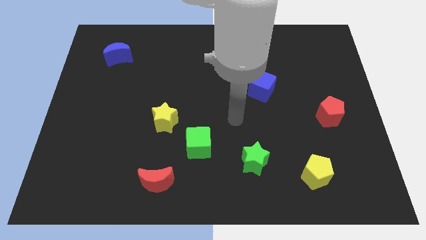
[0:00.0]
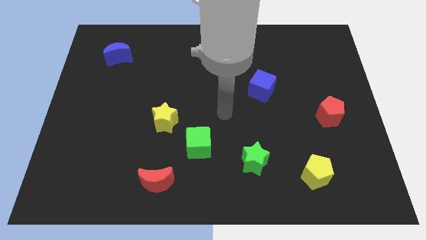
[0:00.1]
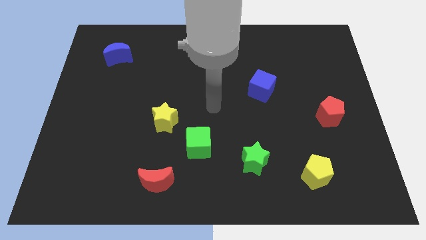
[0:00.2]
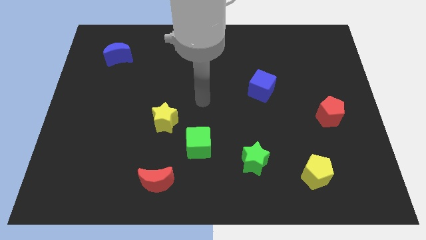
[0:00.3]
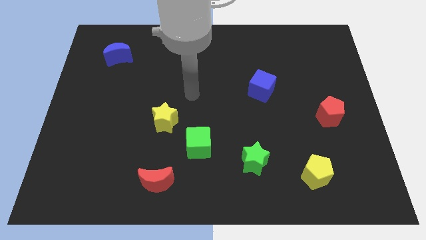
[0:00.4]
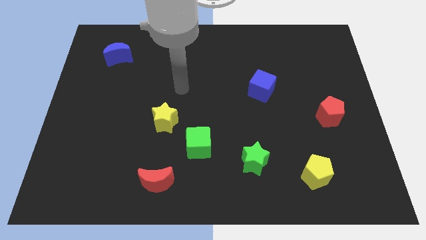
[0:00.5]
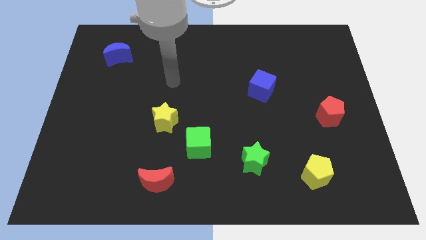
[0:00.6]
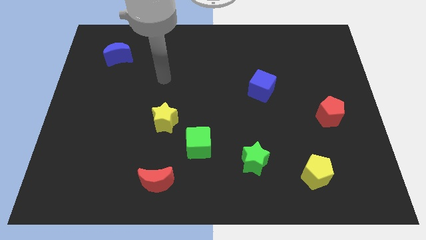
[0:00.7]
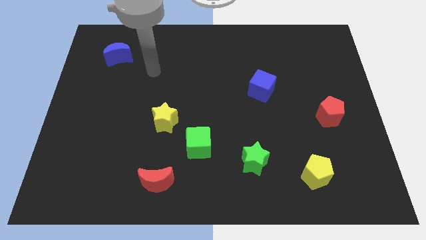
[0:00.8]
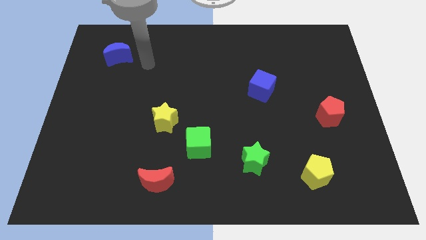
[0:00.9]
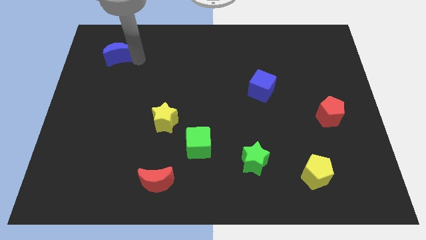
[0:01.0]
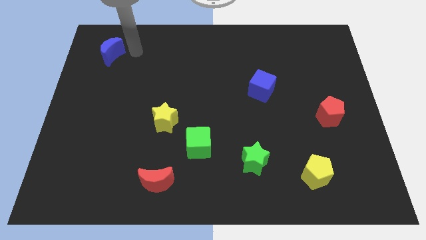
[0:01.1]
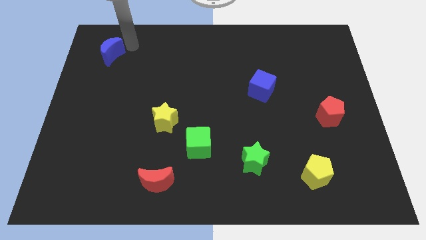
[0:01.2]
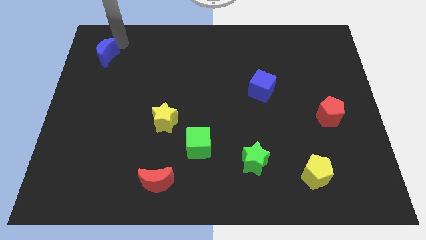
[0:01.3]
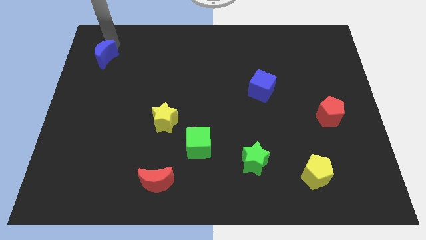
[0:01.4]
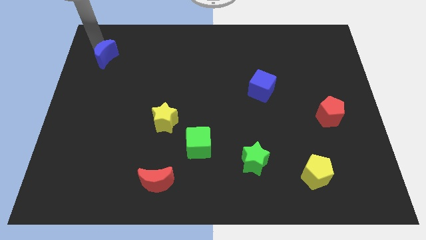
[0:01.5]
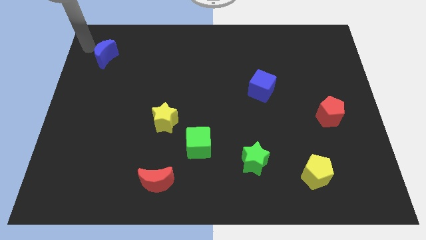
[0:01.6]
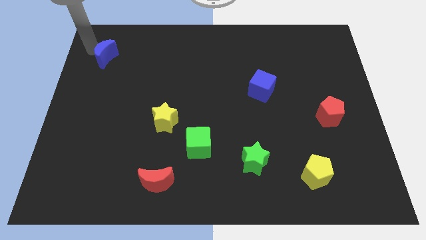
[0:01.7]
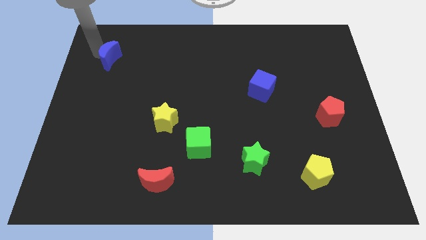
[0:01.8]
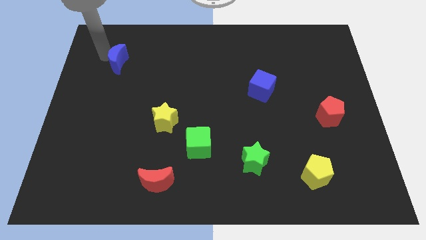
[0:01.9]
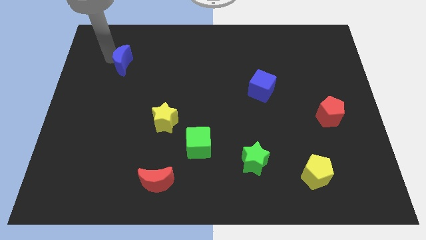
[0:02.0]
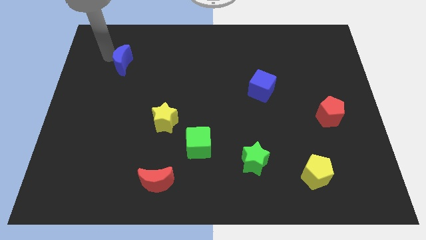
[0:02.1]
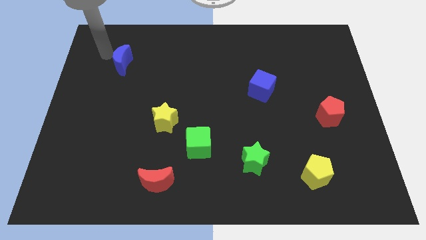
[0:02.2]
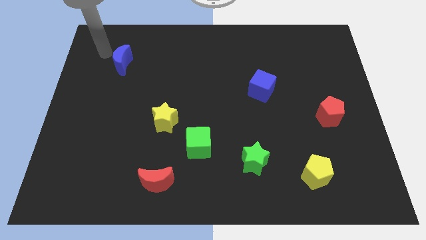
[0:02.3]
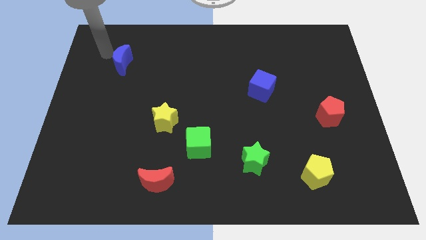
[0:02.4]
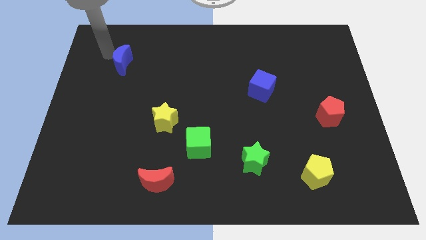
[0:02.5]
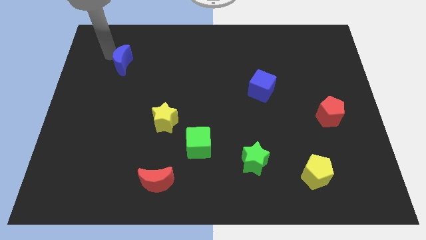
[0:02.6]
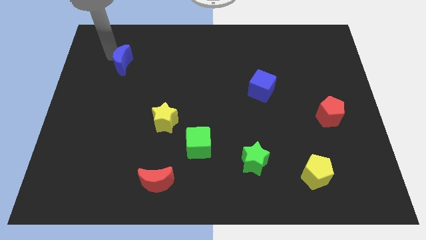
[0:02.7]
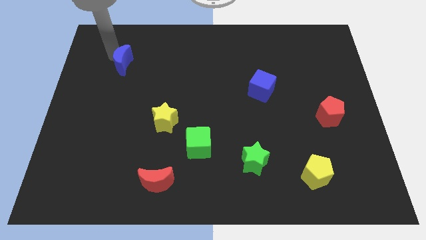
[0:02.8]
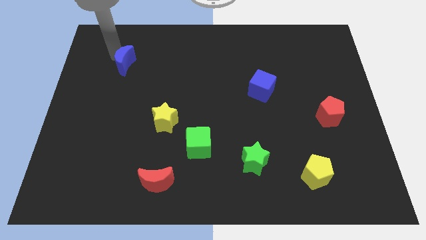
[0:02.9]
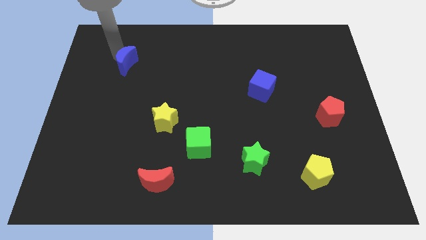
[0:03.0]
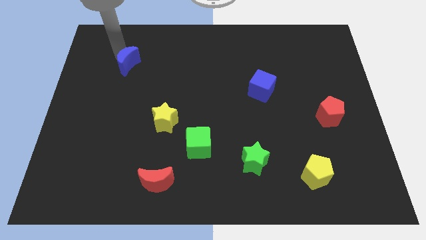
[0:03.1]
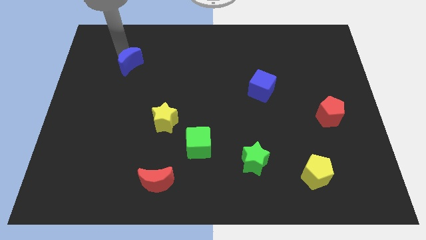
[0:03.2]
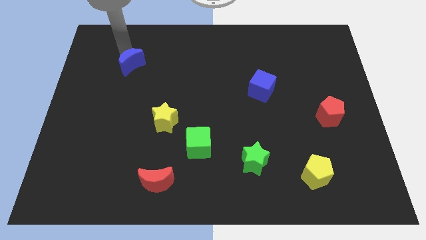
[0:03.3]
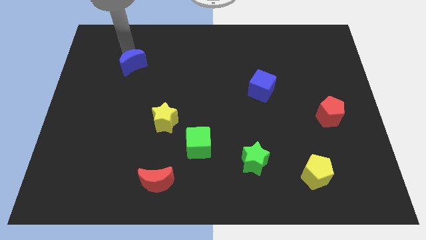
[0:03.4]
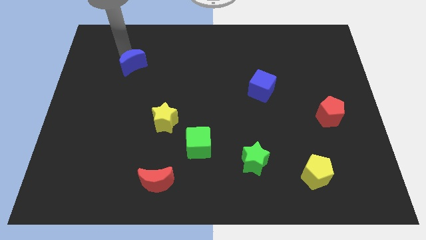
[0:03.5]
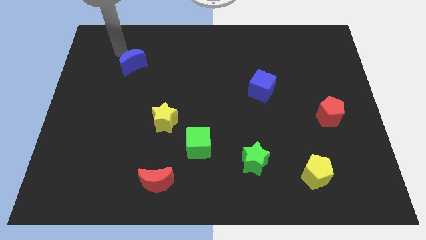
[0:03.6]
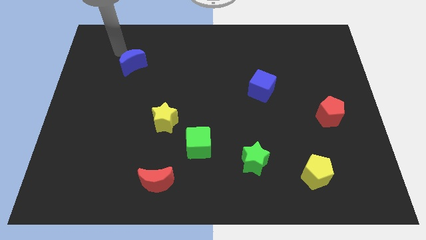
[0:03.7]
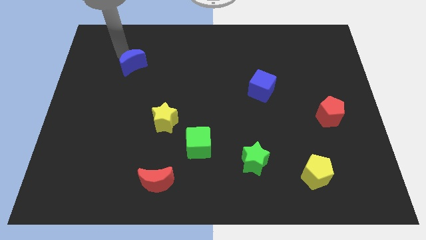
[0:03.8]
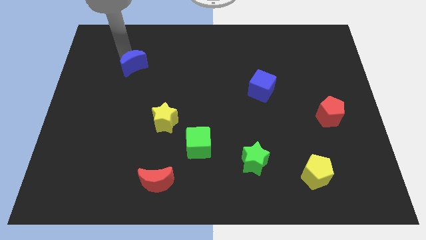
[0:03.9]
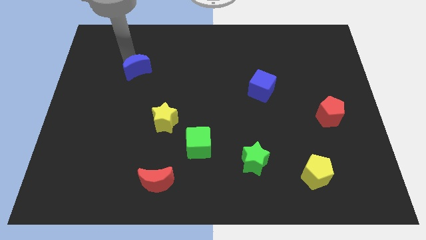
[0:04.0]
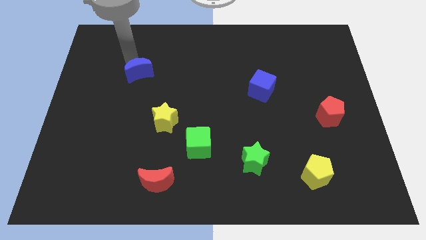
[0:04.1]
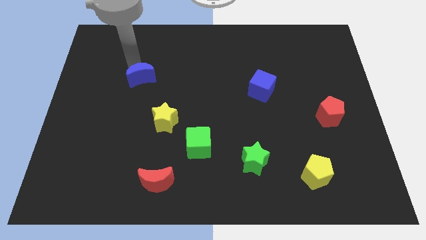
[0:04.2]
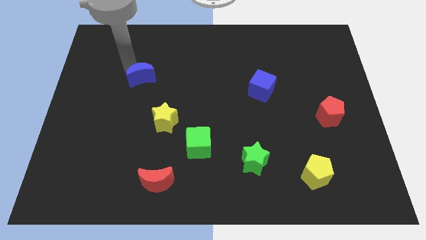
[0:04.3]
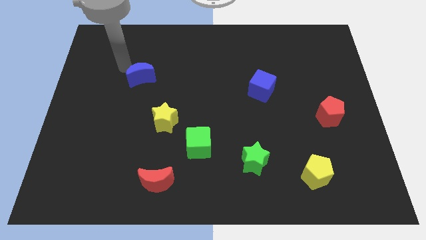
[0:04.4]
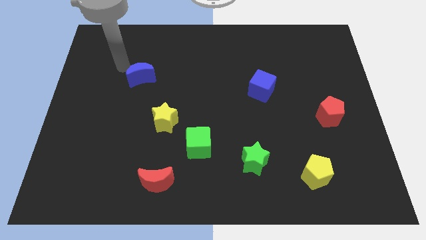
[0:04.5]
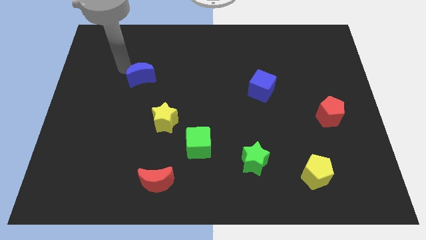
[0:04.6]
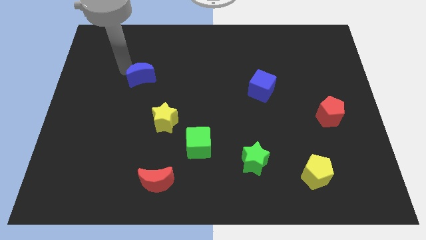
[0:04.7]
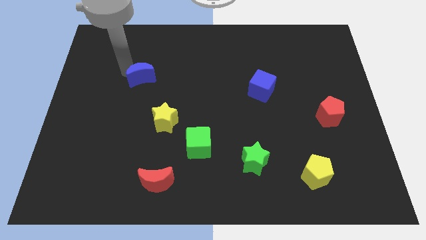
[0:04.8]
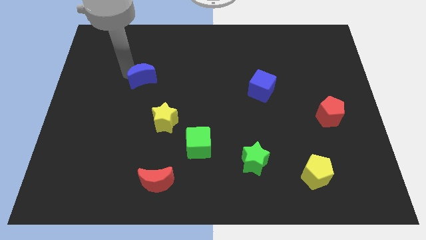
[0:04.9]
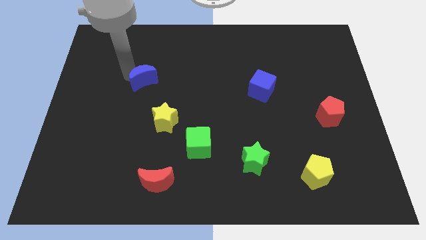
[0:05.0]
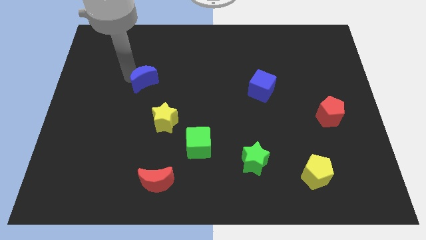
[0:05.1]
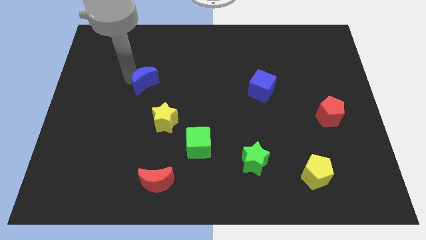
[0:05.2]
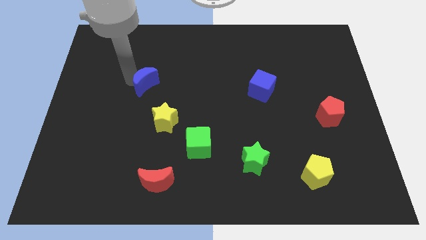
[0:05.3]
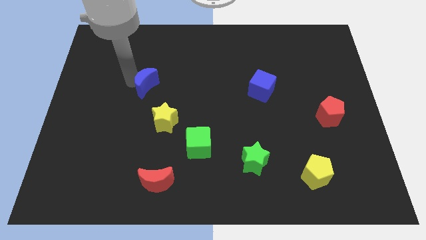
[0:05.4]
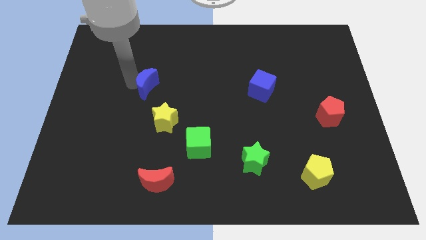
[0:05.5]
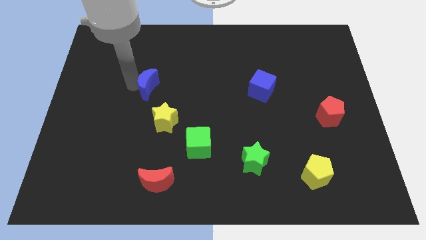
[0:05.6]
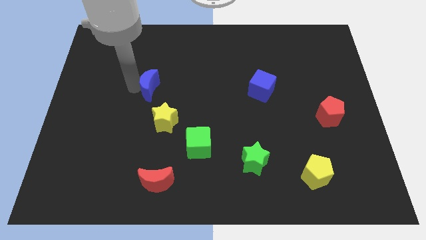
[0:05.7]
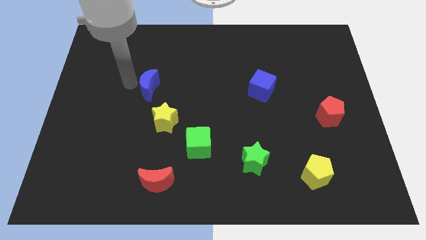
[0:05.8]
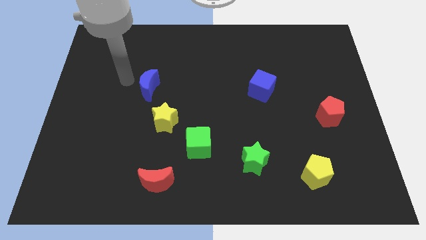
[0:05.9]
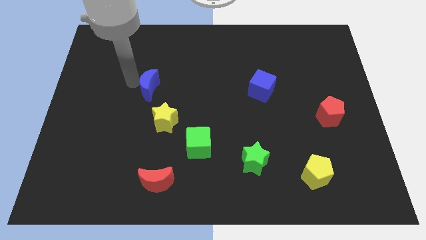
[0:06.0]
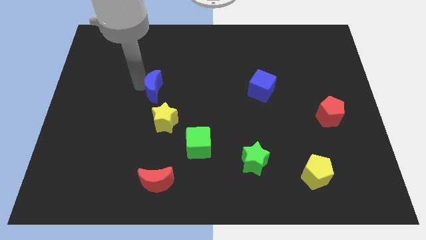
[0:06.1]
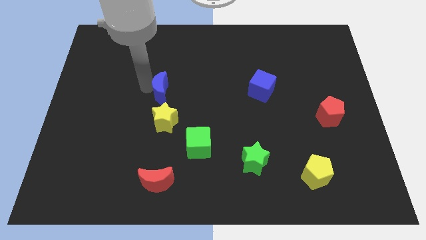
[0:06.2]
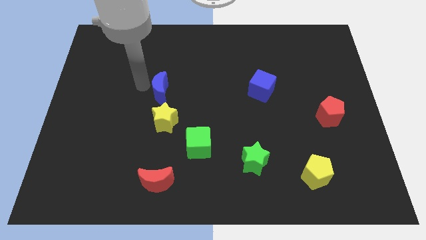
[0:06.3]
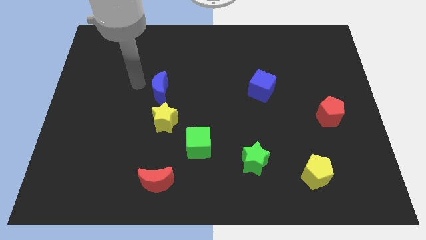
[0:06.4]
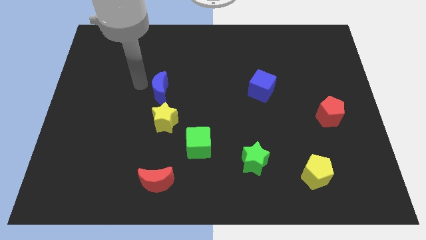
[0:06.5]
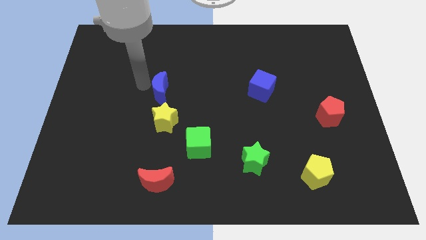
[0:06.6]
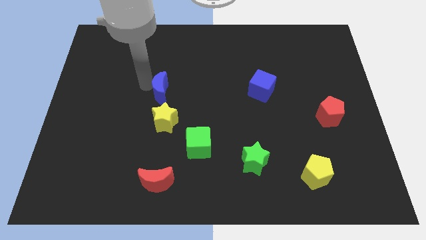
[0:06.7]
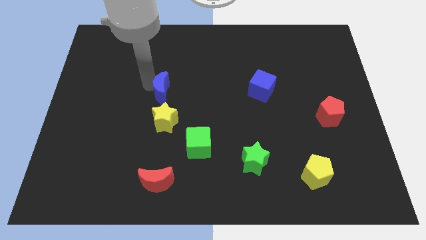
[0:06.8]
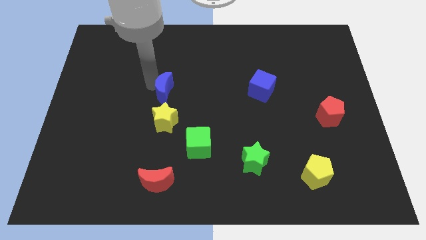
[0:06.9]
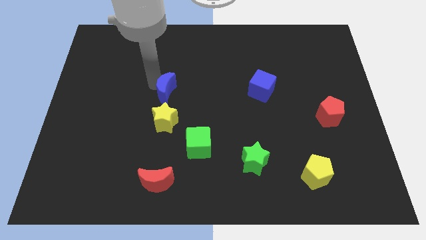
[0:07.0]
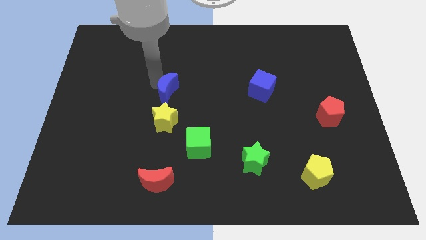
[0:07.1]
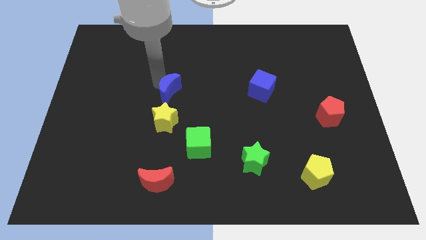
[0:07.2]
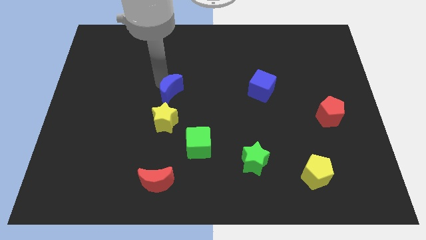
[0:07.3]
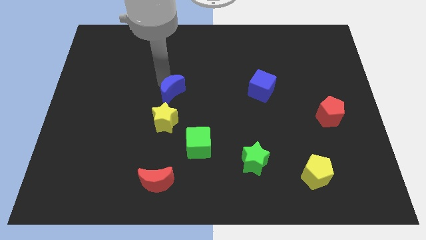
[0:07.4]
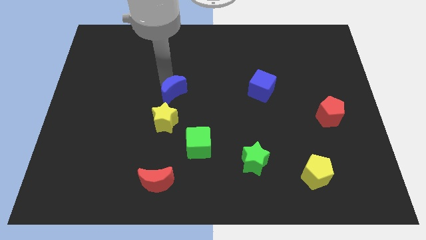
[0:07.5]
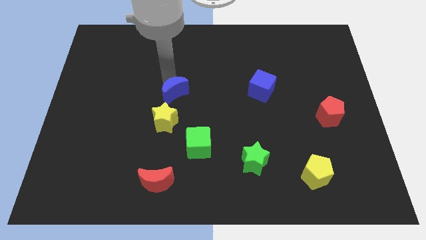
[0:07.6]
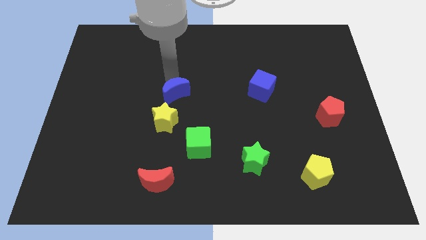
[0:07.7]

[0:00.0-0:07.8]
slide the blue moon diagonally down and to the right

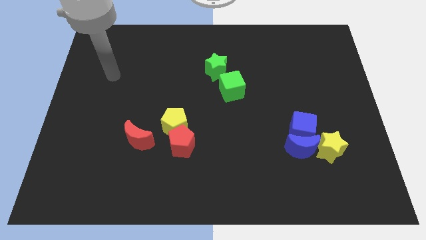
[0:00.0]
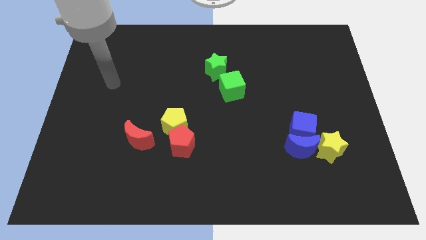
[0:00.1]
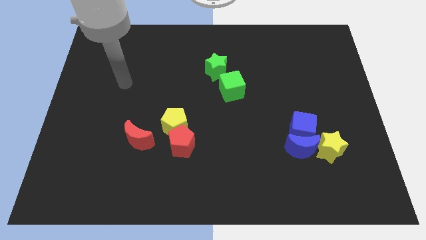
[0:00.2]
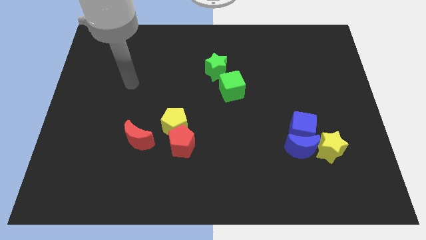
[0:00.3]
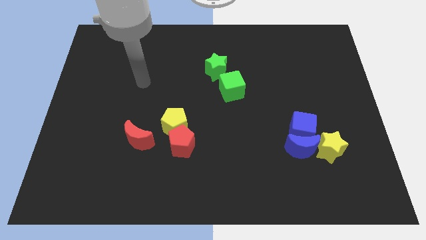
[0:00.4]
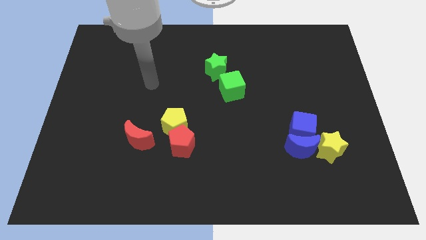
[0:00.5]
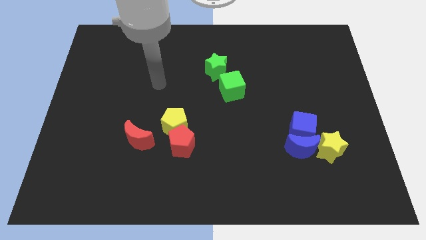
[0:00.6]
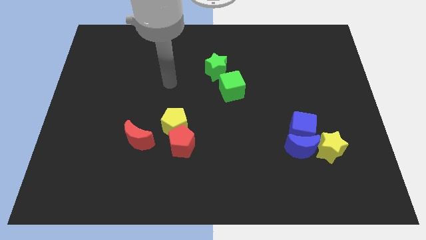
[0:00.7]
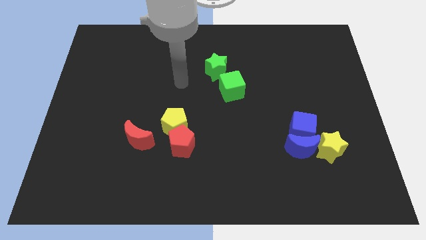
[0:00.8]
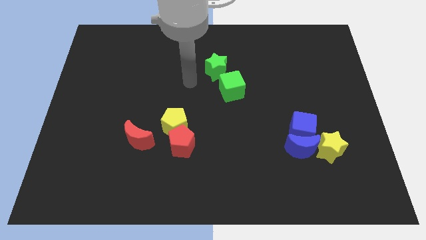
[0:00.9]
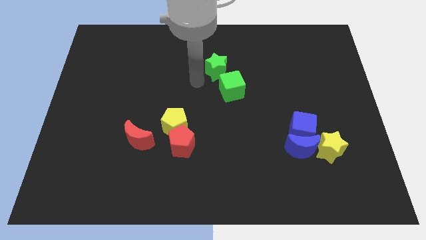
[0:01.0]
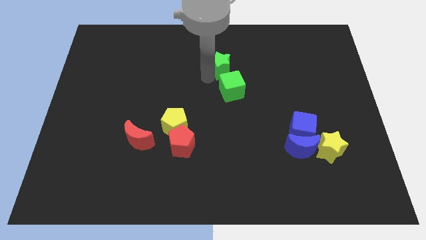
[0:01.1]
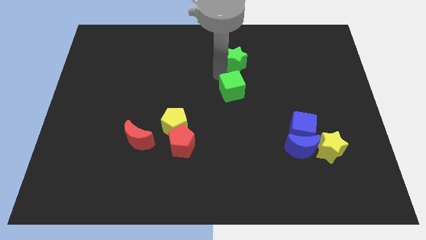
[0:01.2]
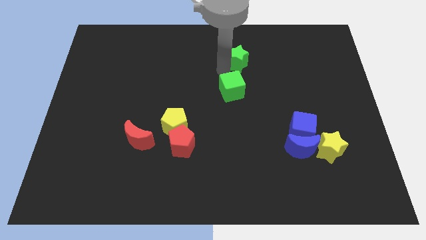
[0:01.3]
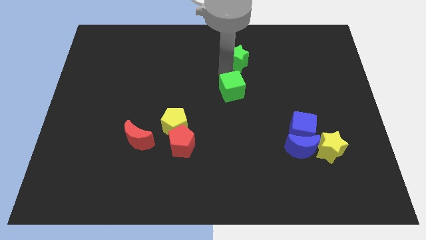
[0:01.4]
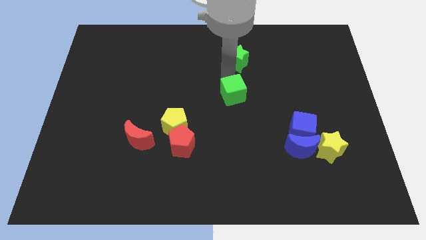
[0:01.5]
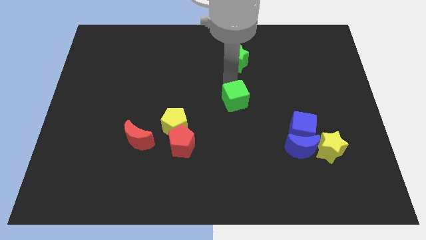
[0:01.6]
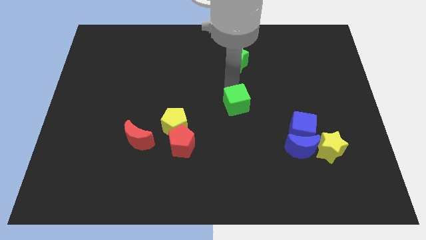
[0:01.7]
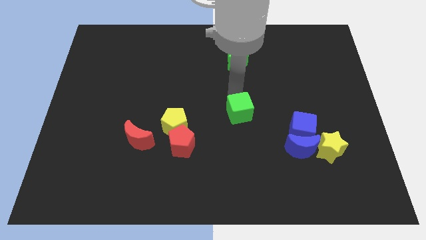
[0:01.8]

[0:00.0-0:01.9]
slide the green cube downwards a little
